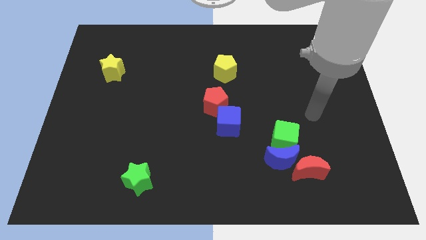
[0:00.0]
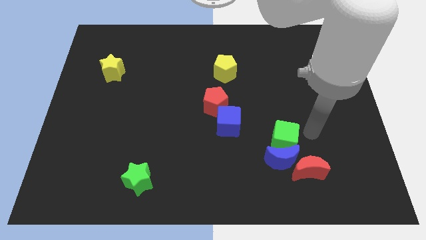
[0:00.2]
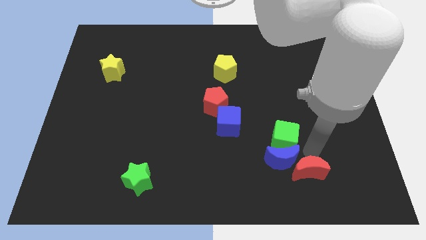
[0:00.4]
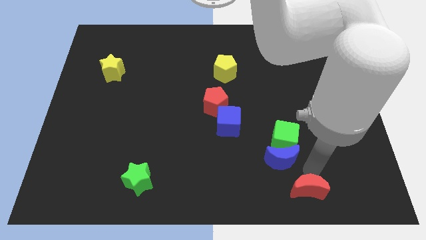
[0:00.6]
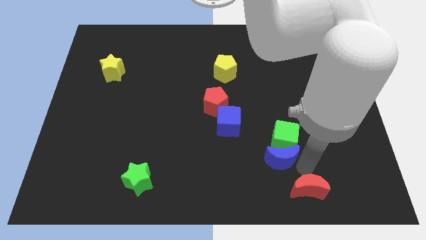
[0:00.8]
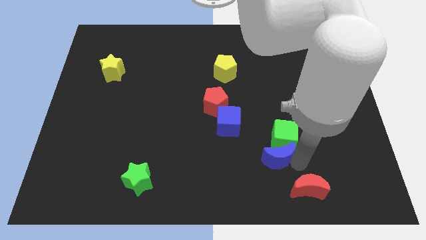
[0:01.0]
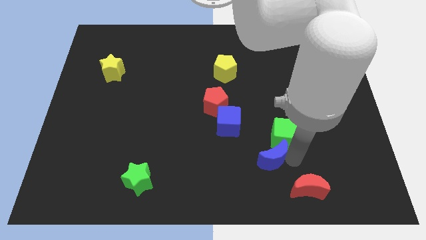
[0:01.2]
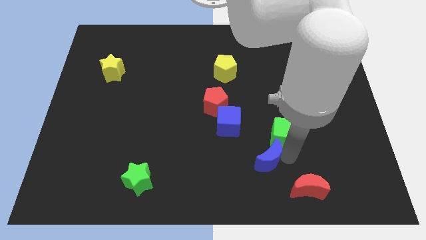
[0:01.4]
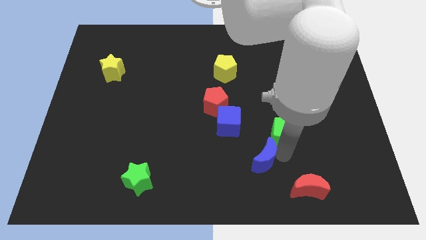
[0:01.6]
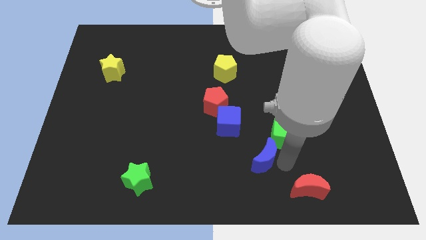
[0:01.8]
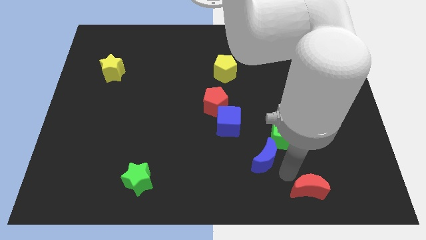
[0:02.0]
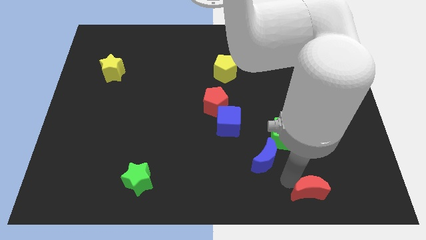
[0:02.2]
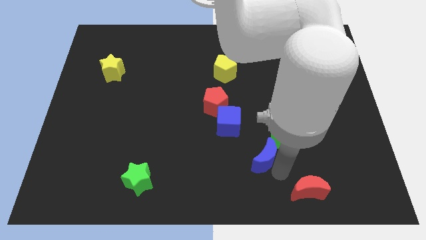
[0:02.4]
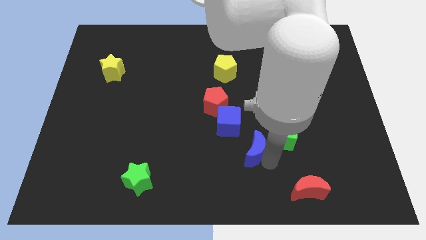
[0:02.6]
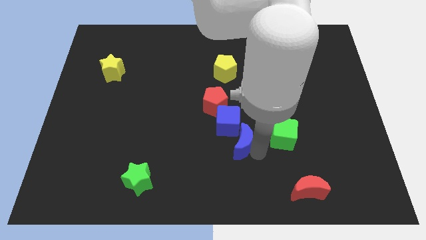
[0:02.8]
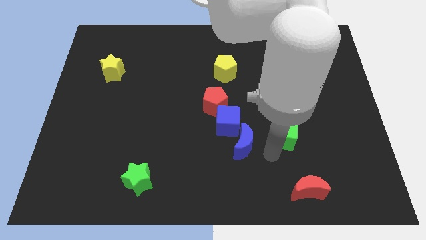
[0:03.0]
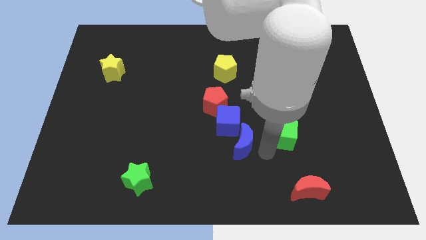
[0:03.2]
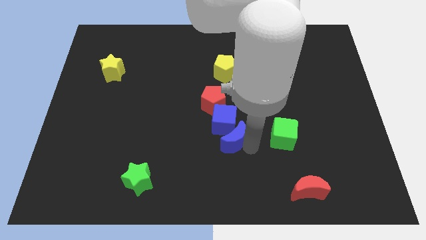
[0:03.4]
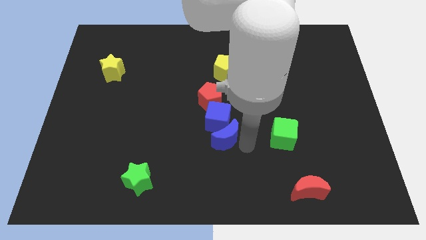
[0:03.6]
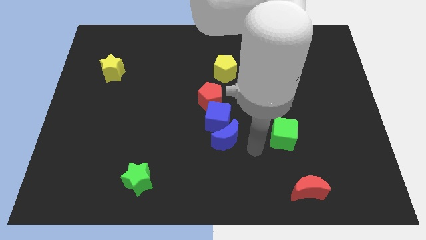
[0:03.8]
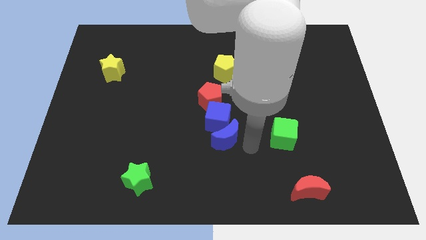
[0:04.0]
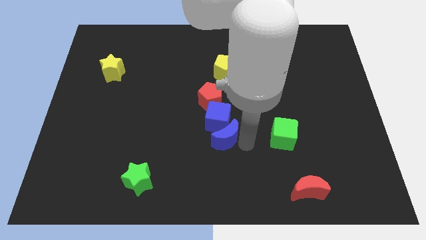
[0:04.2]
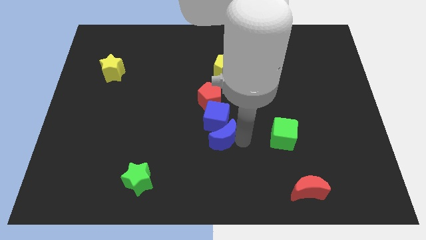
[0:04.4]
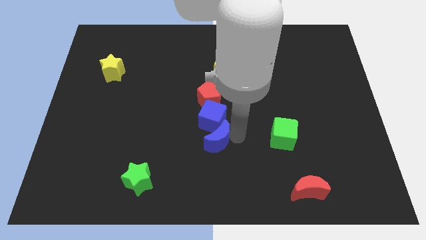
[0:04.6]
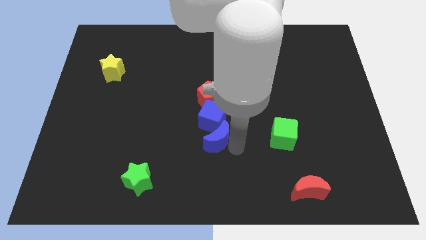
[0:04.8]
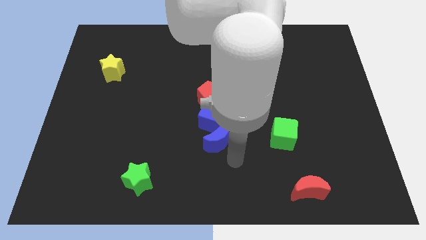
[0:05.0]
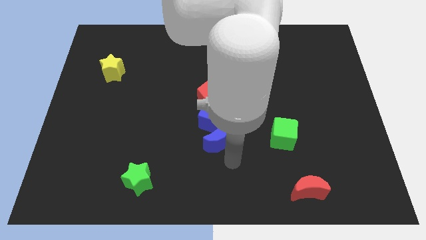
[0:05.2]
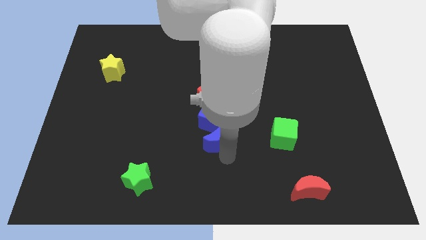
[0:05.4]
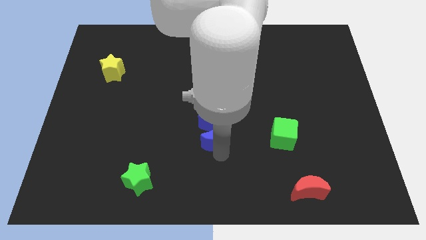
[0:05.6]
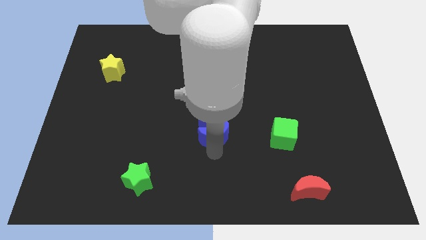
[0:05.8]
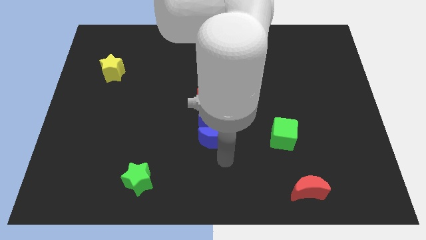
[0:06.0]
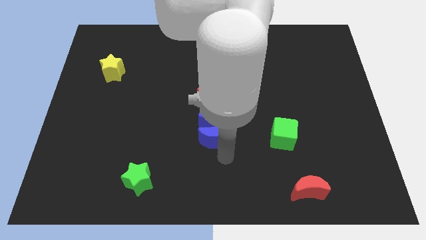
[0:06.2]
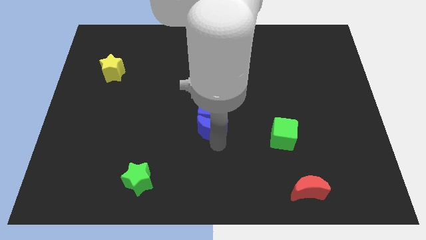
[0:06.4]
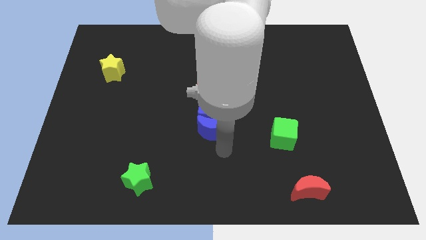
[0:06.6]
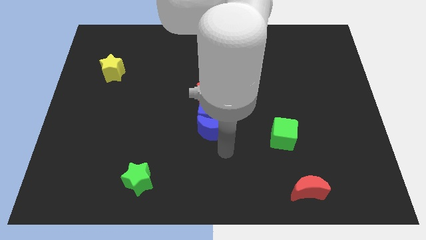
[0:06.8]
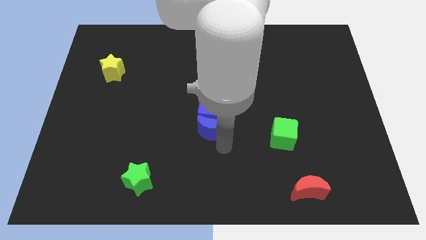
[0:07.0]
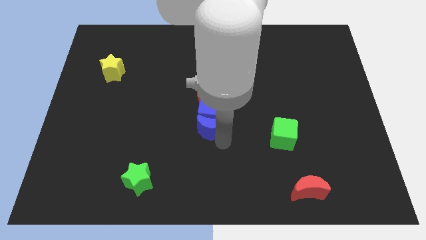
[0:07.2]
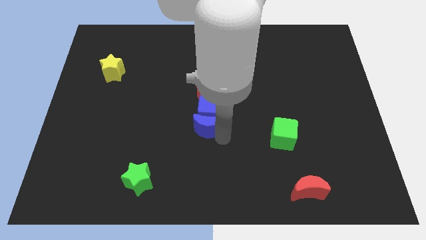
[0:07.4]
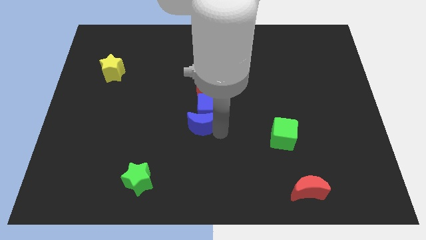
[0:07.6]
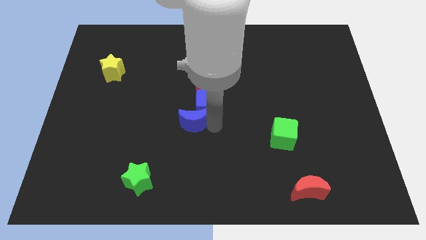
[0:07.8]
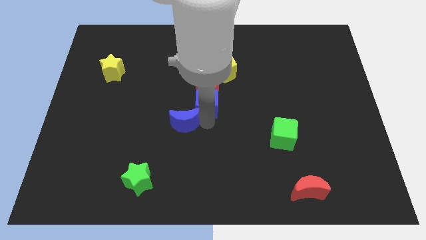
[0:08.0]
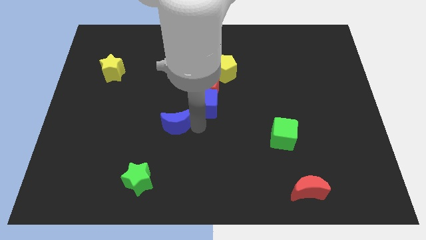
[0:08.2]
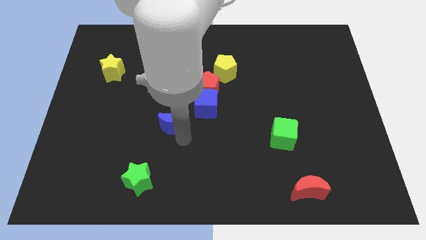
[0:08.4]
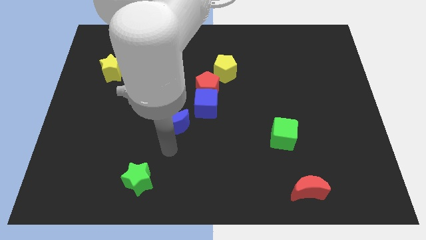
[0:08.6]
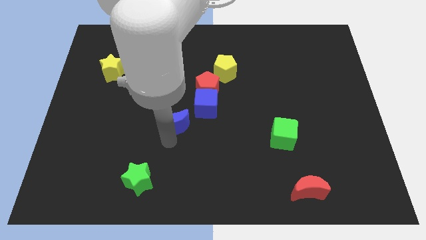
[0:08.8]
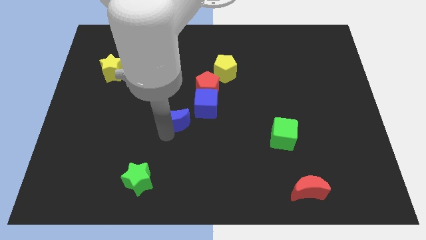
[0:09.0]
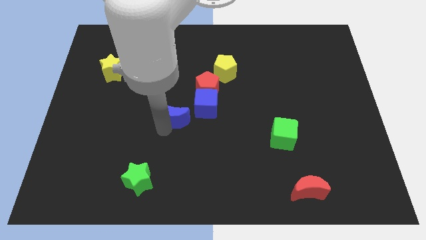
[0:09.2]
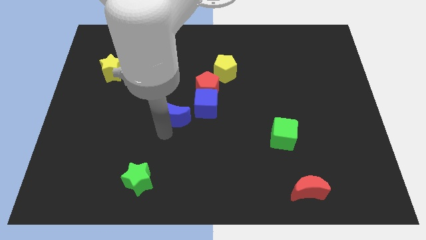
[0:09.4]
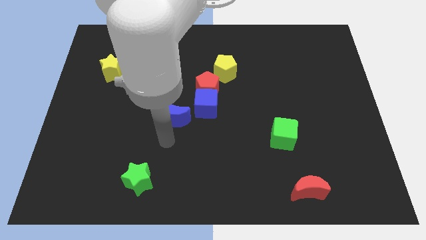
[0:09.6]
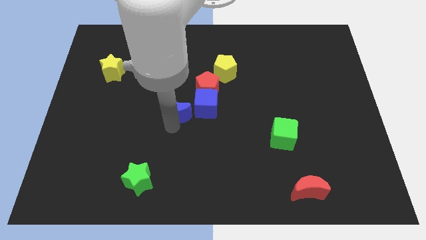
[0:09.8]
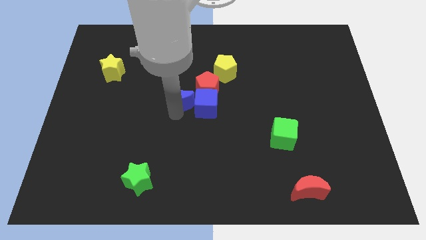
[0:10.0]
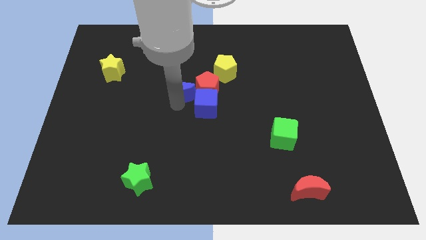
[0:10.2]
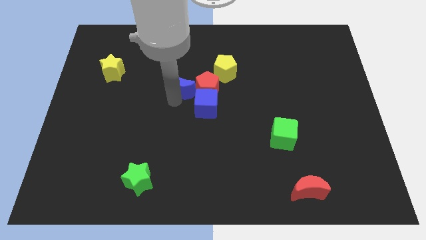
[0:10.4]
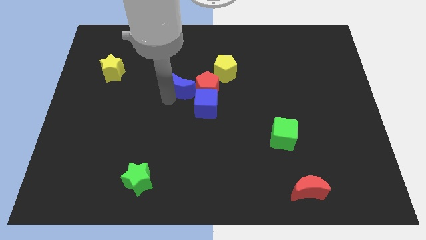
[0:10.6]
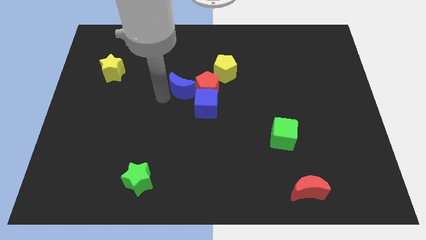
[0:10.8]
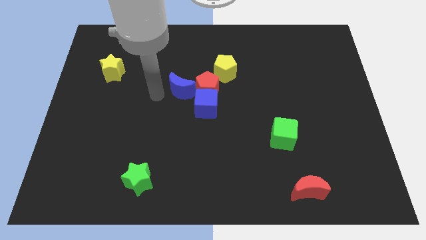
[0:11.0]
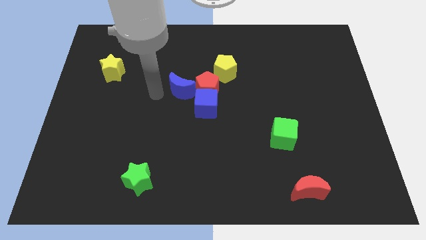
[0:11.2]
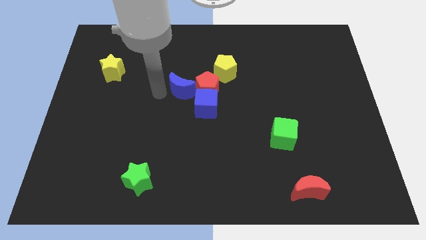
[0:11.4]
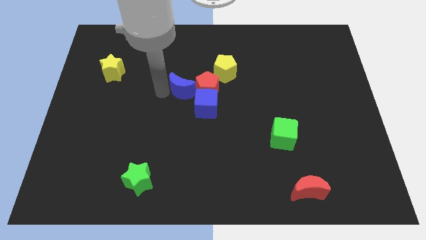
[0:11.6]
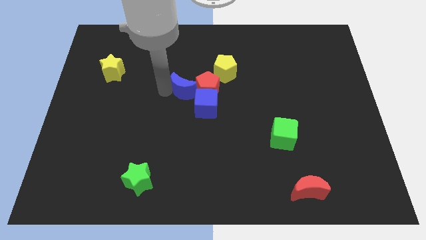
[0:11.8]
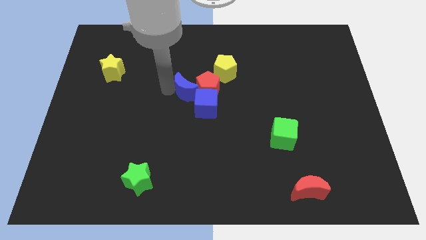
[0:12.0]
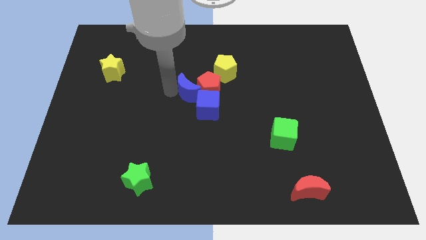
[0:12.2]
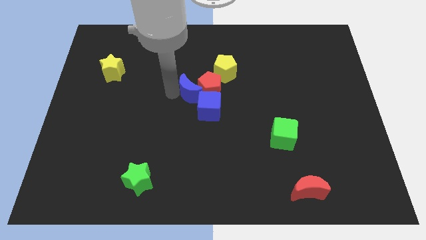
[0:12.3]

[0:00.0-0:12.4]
slide the blue moon diagonally up and to the left of the blue cube
